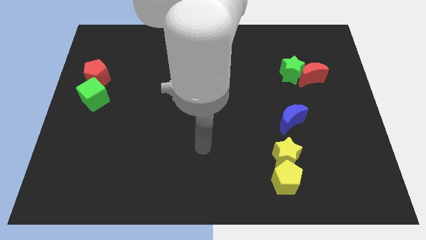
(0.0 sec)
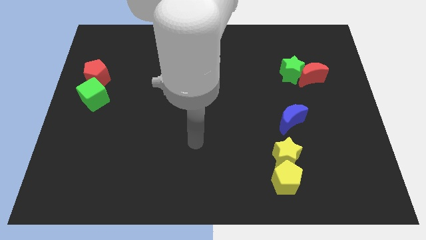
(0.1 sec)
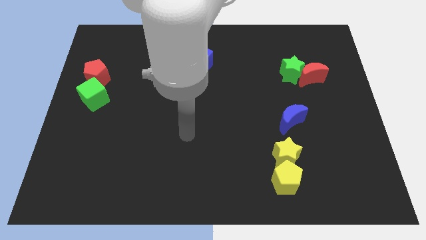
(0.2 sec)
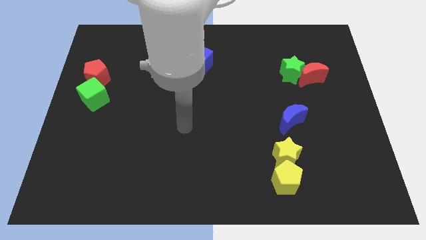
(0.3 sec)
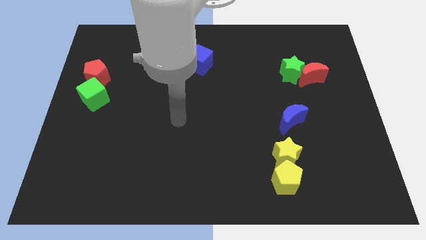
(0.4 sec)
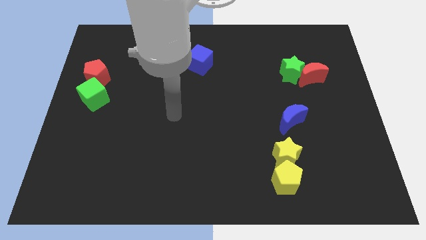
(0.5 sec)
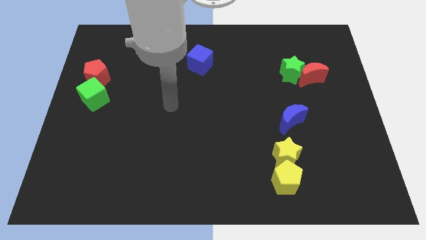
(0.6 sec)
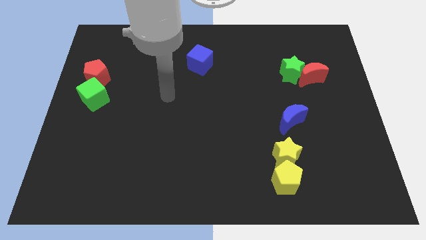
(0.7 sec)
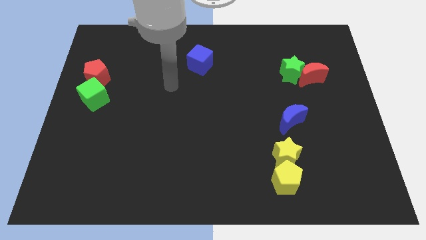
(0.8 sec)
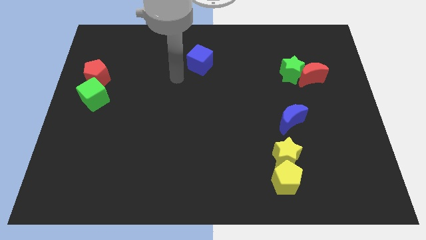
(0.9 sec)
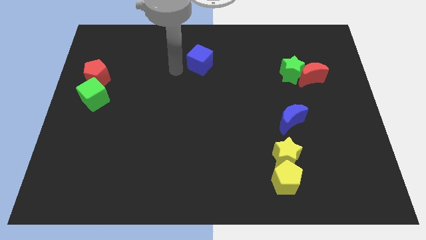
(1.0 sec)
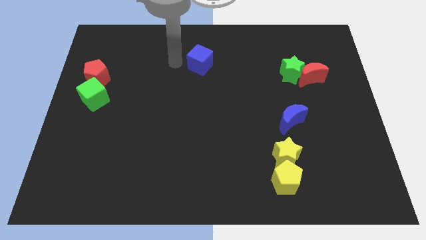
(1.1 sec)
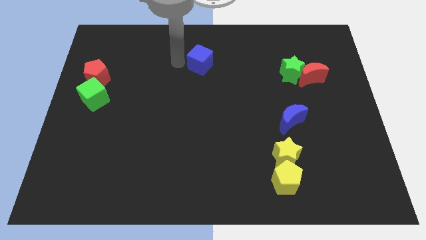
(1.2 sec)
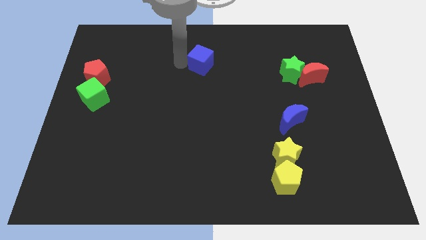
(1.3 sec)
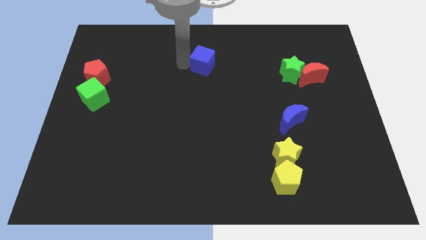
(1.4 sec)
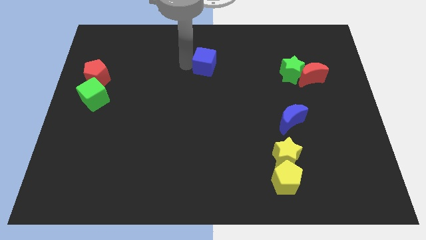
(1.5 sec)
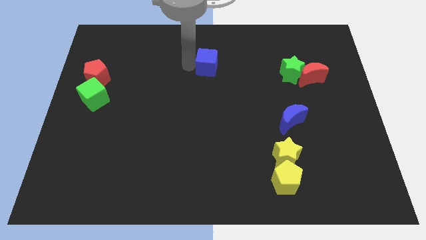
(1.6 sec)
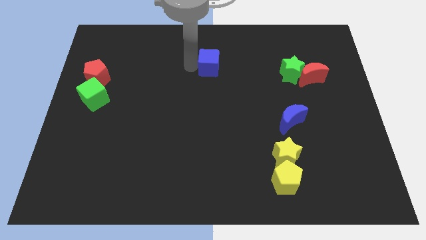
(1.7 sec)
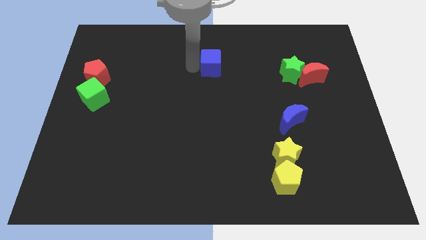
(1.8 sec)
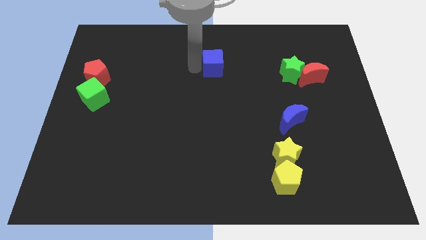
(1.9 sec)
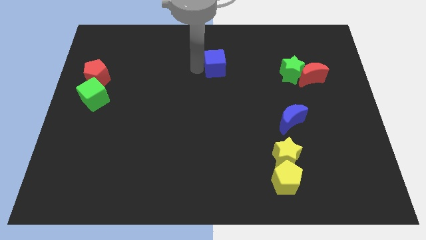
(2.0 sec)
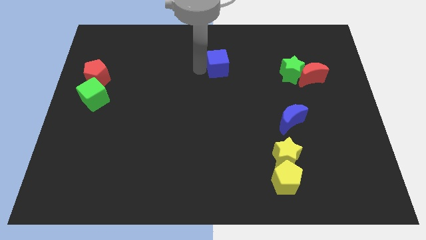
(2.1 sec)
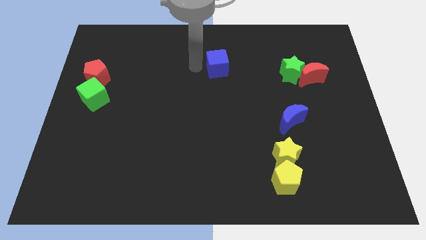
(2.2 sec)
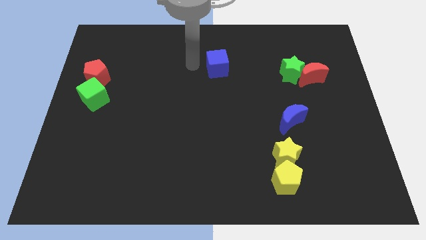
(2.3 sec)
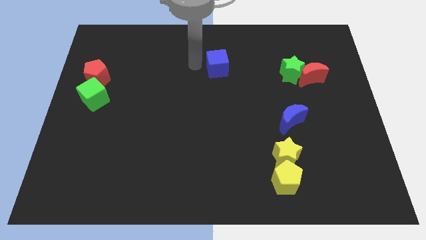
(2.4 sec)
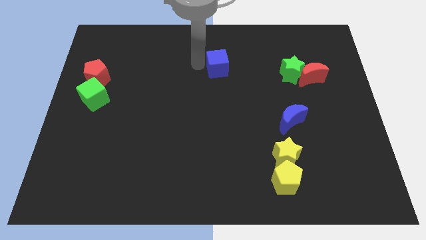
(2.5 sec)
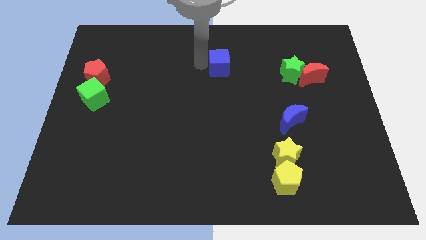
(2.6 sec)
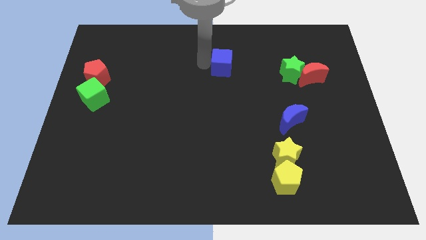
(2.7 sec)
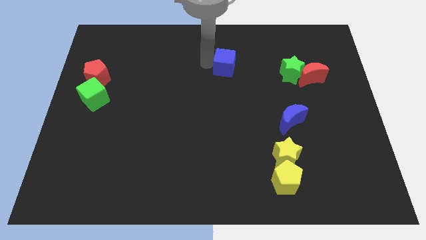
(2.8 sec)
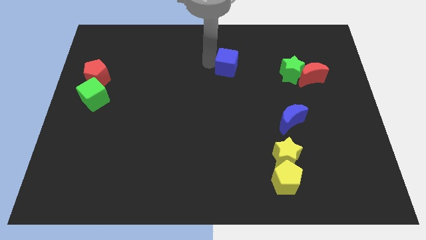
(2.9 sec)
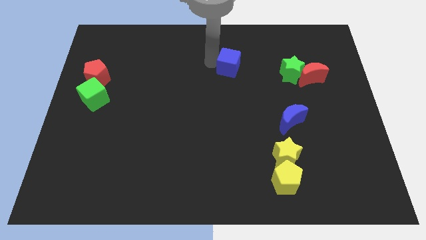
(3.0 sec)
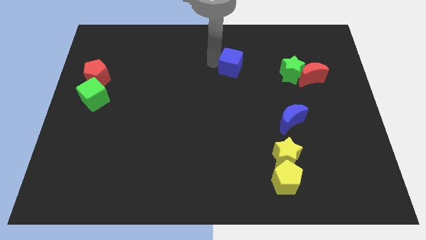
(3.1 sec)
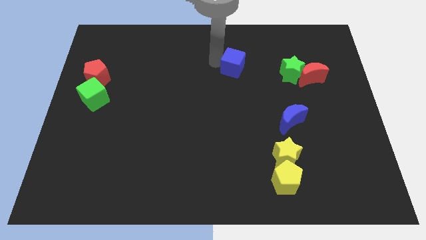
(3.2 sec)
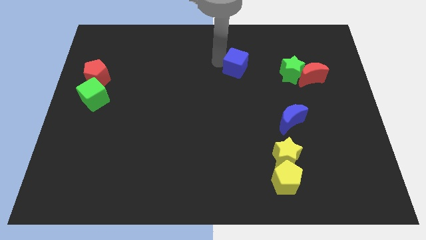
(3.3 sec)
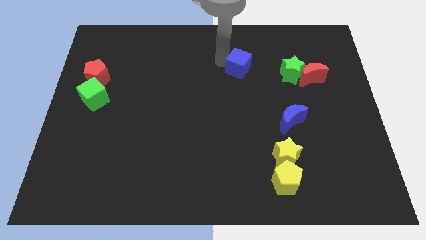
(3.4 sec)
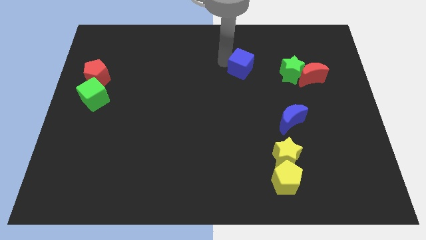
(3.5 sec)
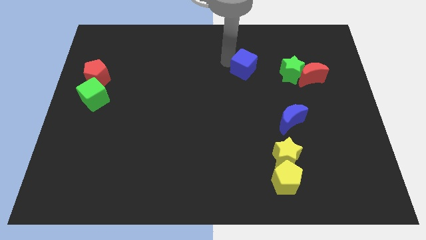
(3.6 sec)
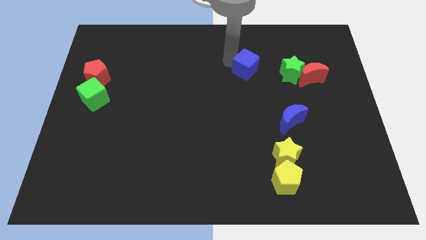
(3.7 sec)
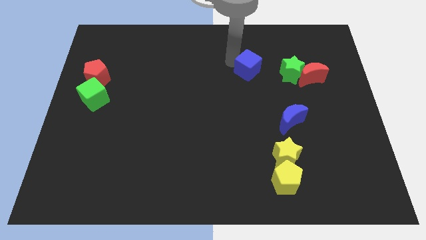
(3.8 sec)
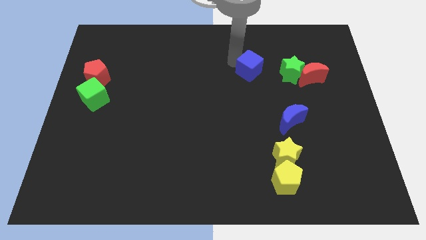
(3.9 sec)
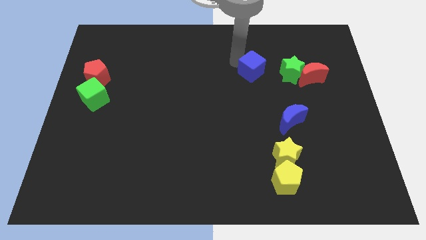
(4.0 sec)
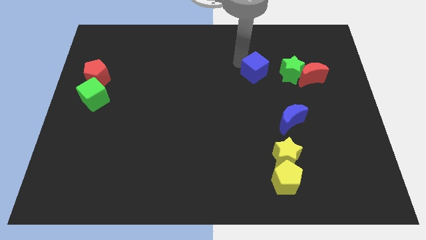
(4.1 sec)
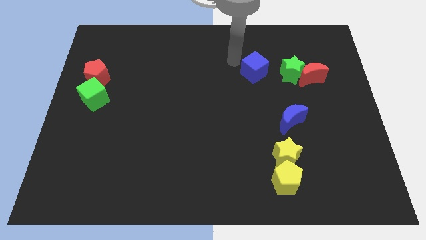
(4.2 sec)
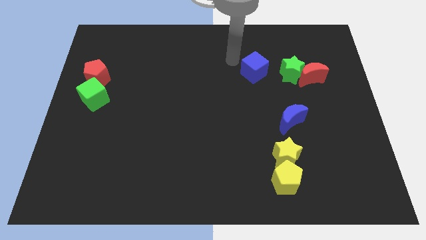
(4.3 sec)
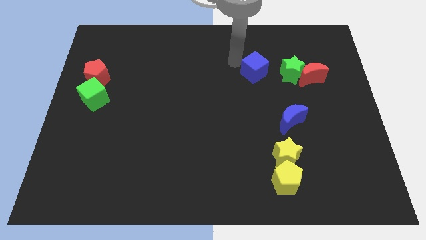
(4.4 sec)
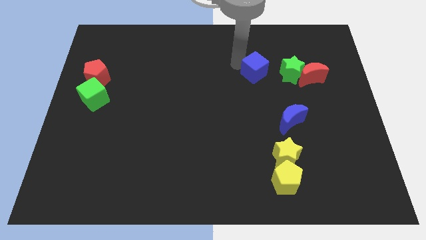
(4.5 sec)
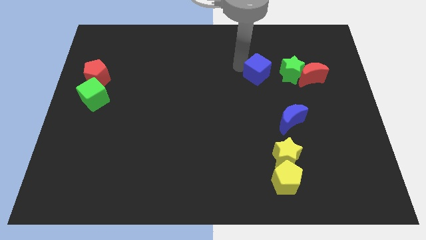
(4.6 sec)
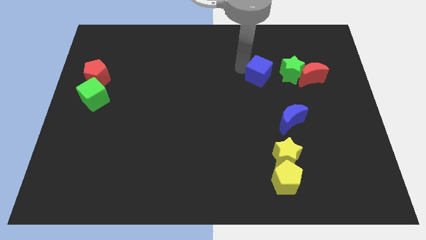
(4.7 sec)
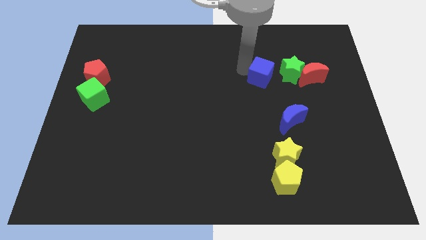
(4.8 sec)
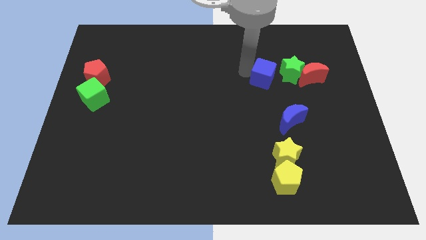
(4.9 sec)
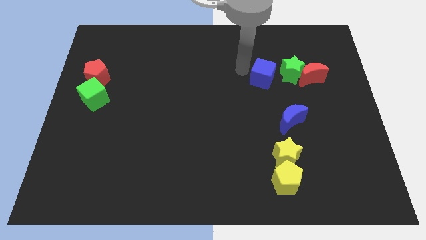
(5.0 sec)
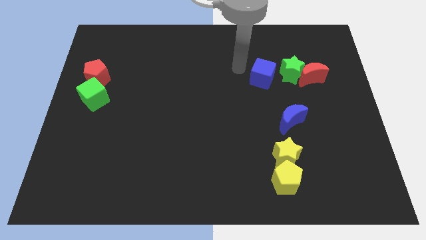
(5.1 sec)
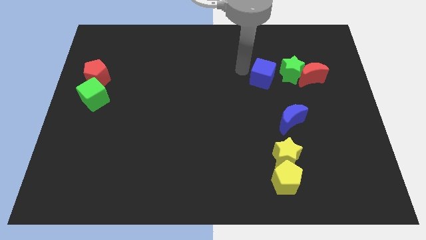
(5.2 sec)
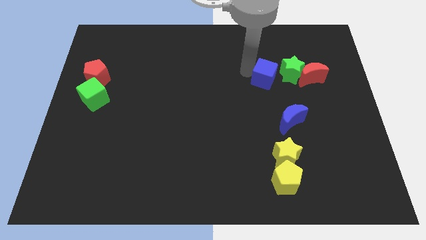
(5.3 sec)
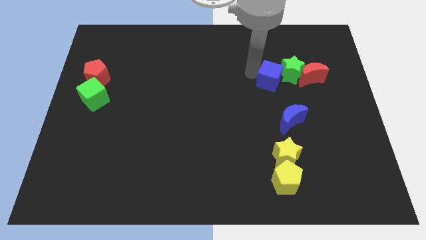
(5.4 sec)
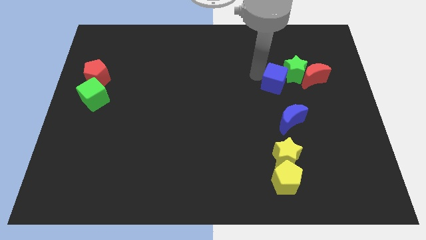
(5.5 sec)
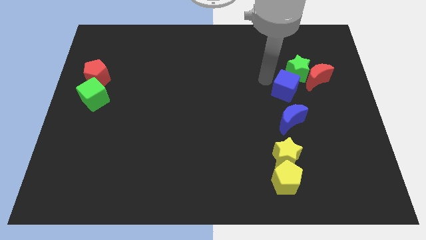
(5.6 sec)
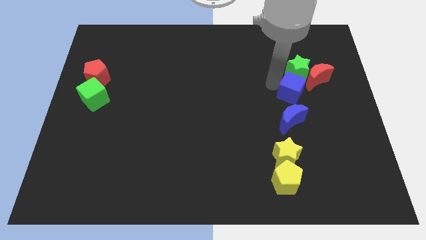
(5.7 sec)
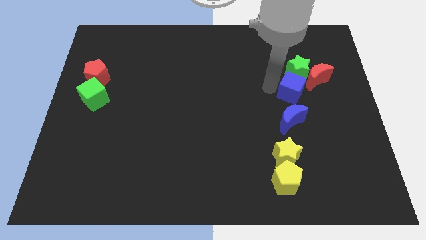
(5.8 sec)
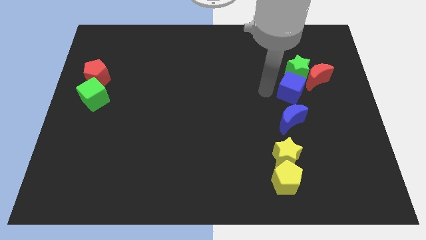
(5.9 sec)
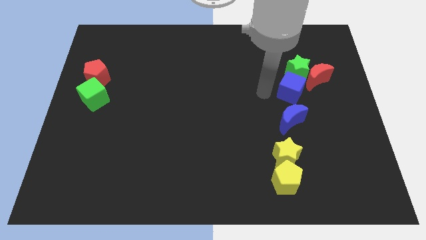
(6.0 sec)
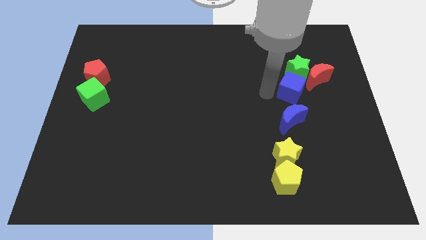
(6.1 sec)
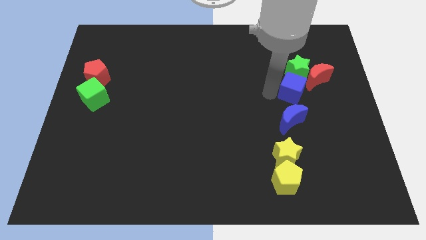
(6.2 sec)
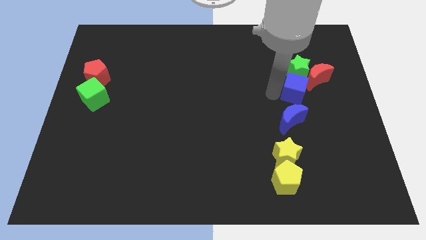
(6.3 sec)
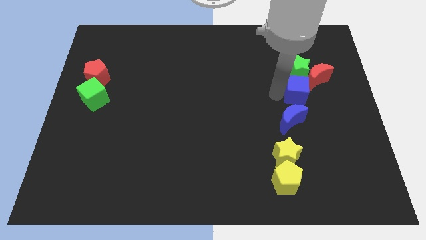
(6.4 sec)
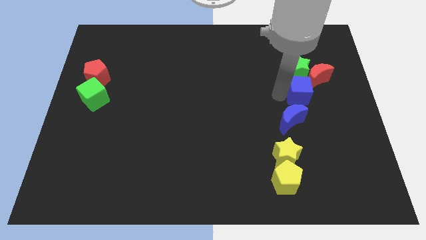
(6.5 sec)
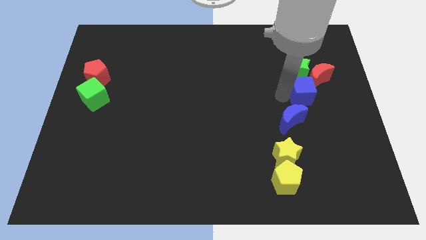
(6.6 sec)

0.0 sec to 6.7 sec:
put the blue cube to the bottom right of the green star
